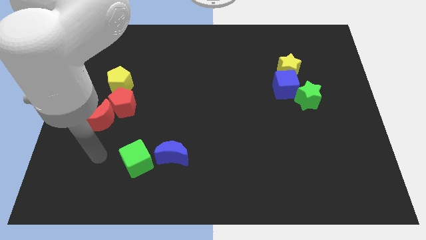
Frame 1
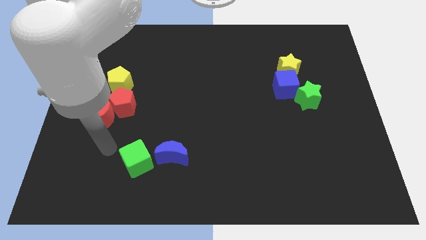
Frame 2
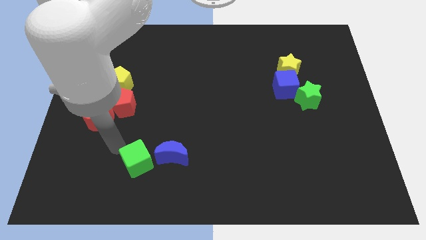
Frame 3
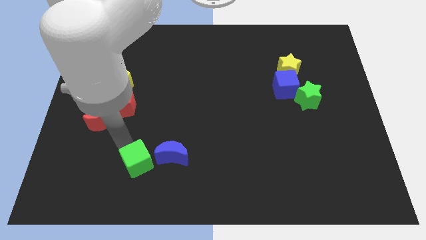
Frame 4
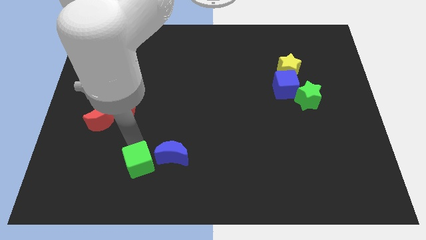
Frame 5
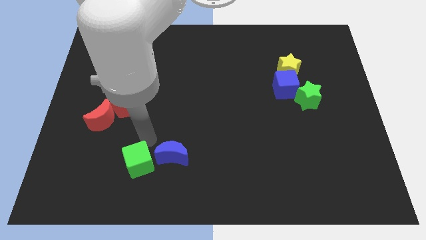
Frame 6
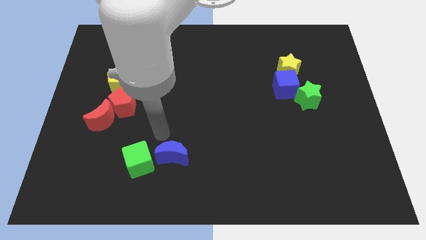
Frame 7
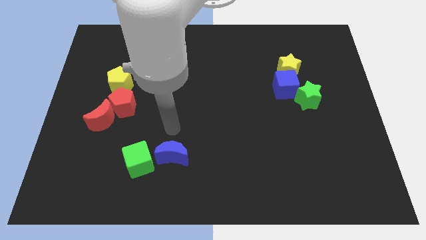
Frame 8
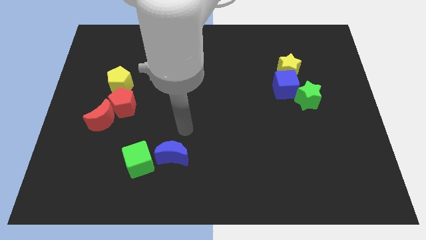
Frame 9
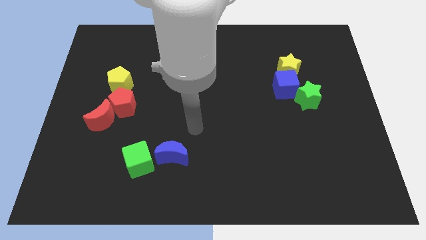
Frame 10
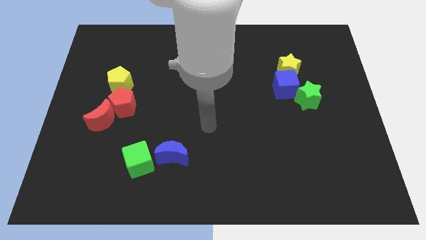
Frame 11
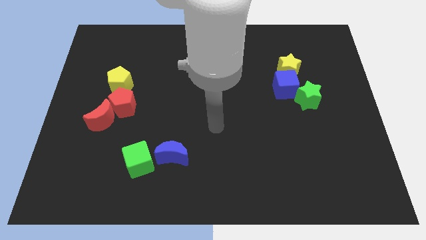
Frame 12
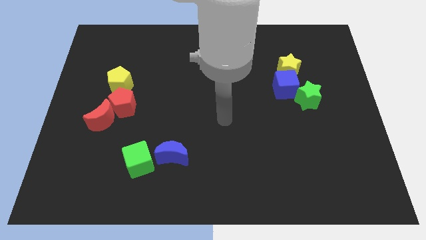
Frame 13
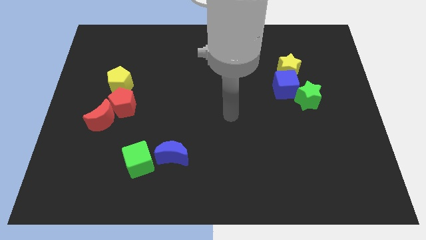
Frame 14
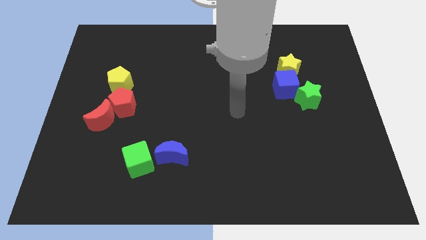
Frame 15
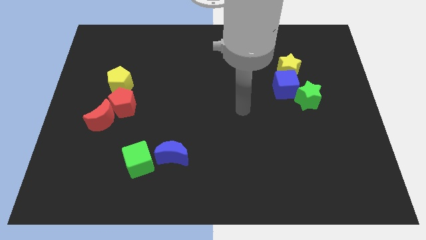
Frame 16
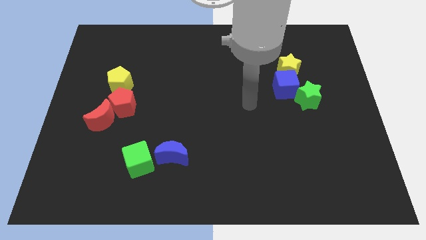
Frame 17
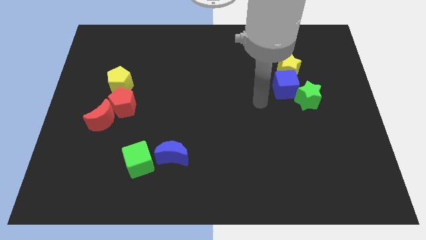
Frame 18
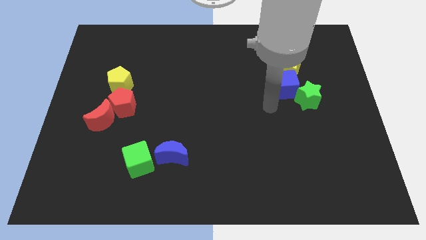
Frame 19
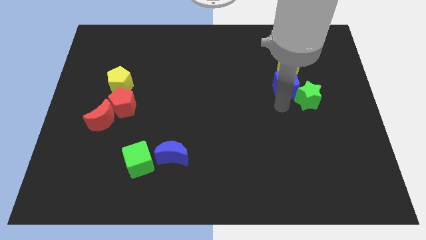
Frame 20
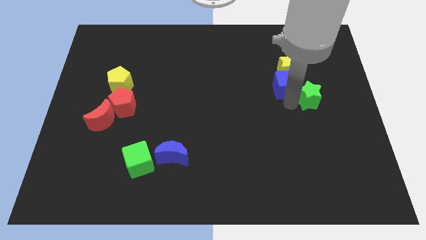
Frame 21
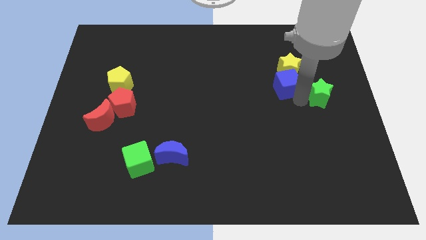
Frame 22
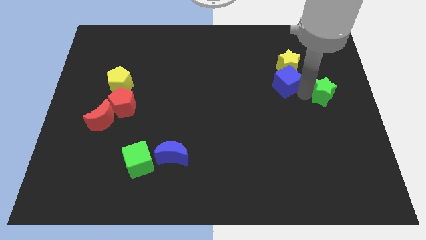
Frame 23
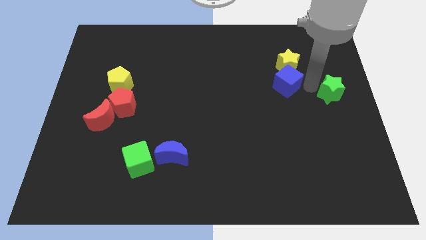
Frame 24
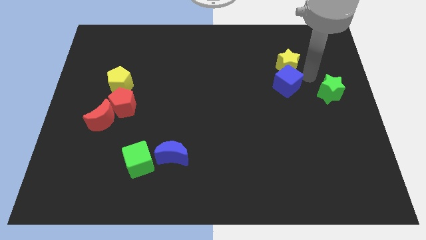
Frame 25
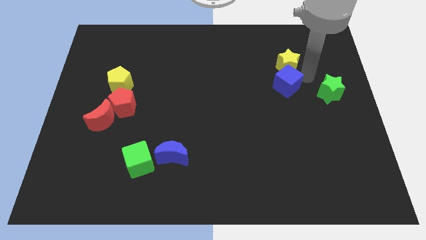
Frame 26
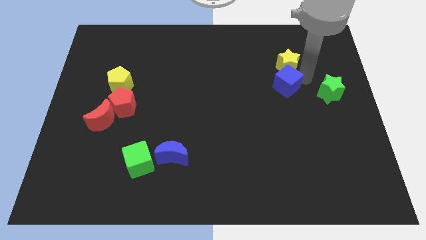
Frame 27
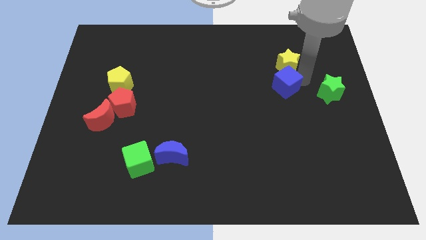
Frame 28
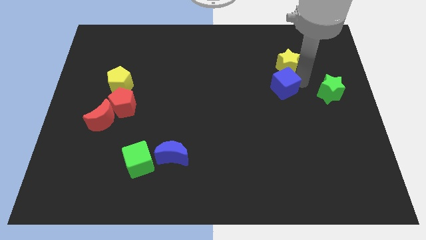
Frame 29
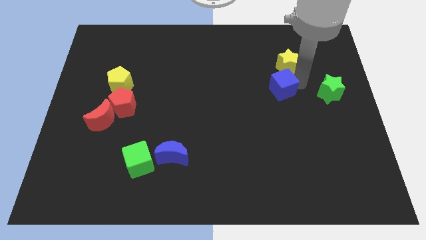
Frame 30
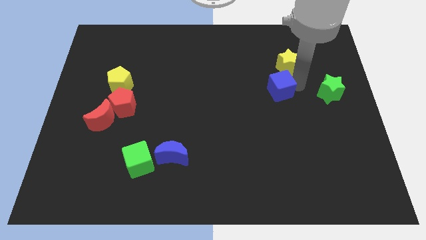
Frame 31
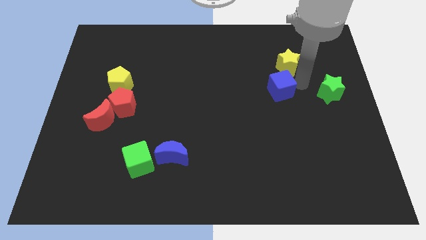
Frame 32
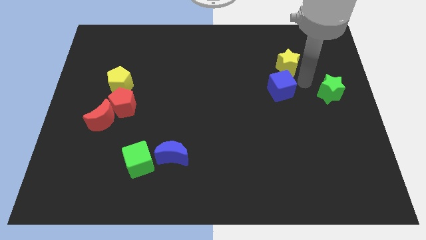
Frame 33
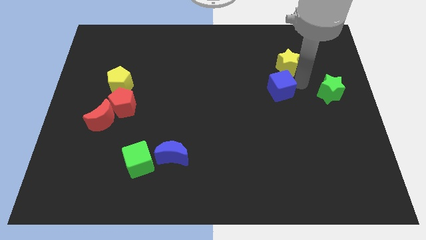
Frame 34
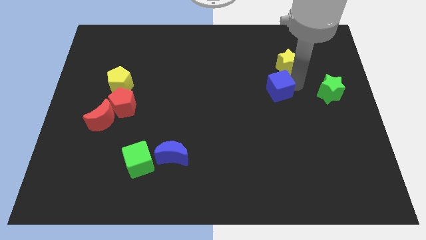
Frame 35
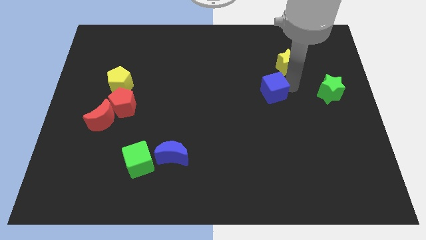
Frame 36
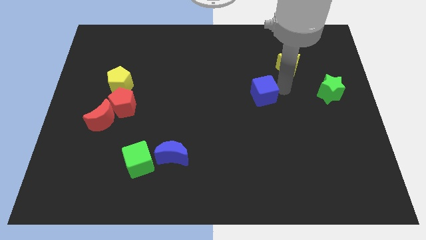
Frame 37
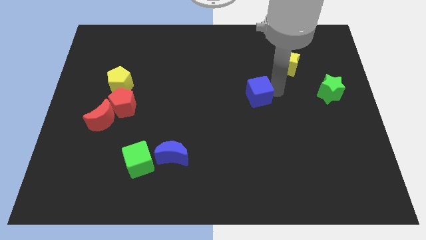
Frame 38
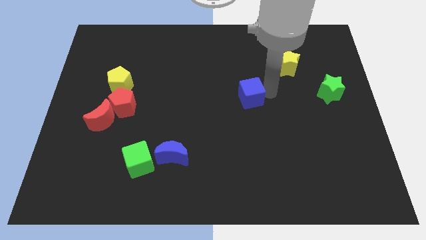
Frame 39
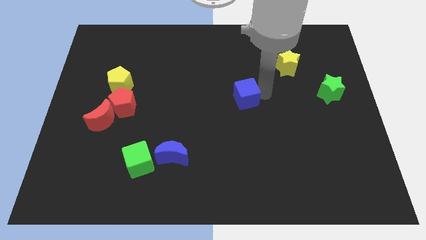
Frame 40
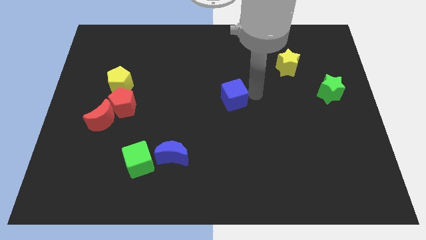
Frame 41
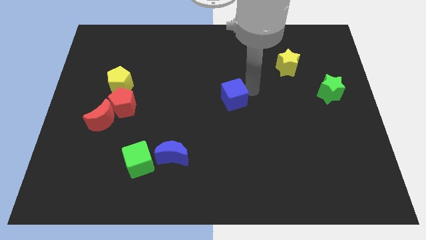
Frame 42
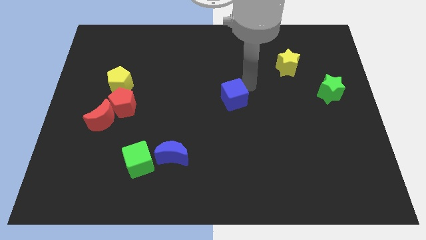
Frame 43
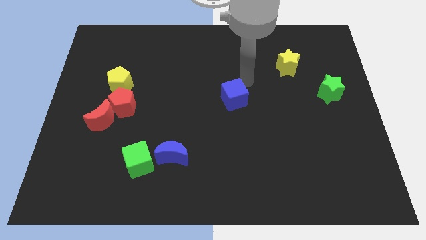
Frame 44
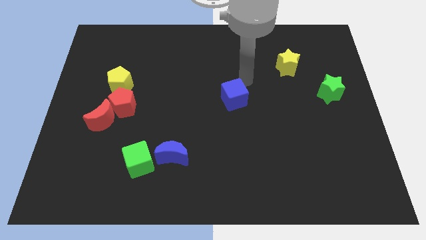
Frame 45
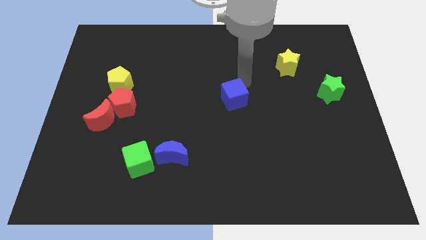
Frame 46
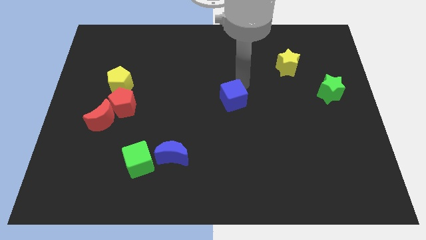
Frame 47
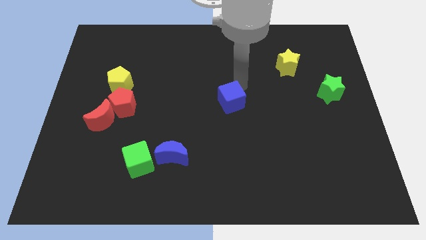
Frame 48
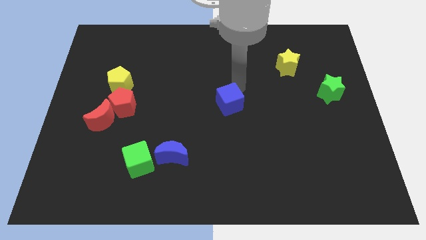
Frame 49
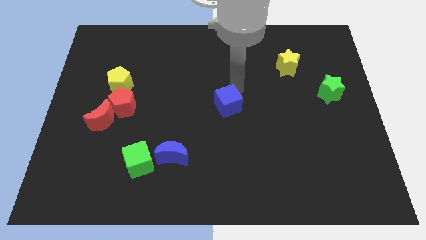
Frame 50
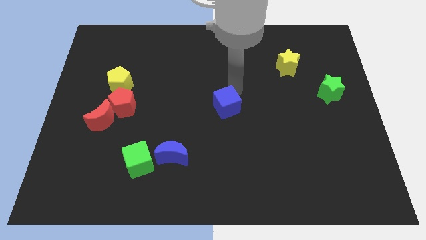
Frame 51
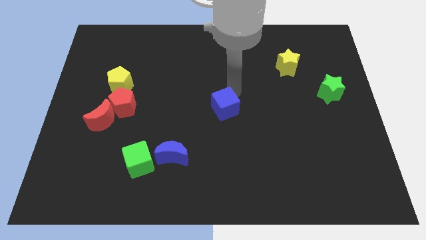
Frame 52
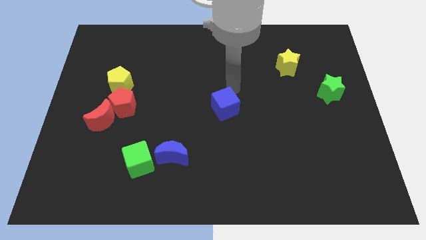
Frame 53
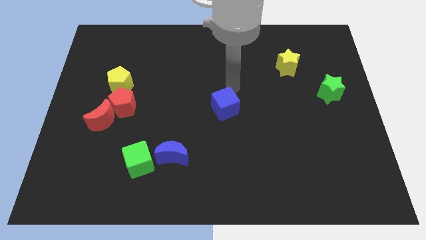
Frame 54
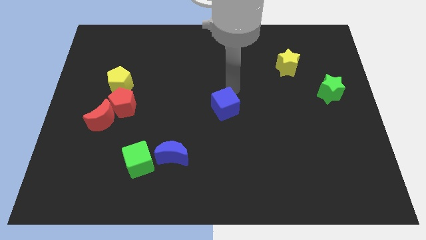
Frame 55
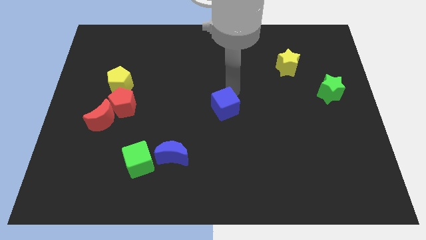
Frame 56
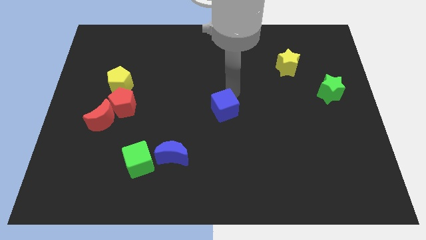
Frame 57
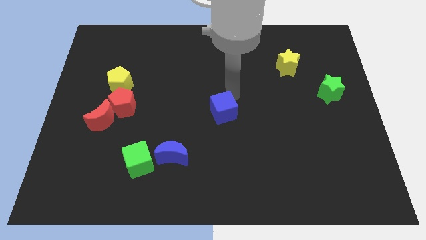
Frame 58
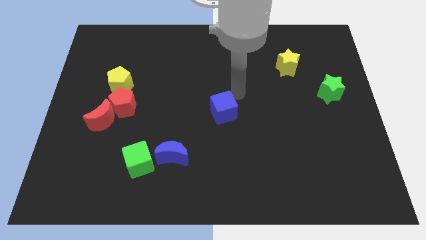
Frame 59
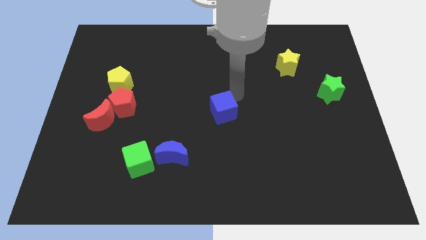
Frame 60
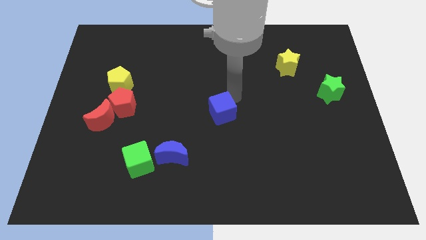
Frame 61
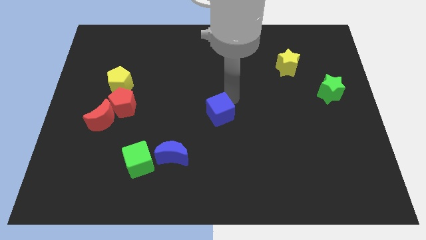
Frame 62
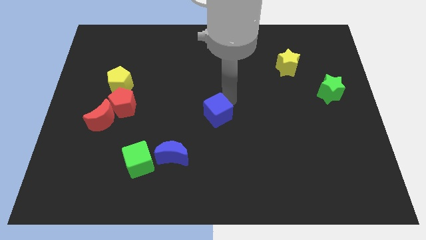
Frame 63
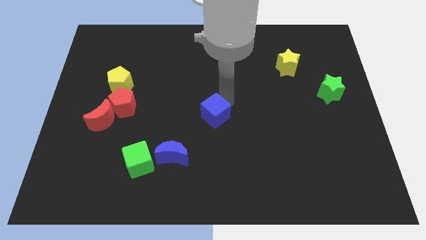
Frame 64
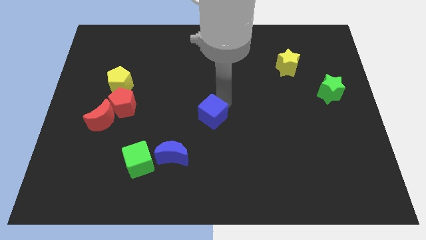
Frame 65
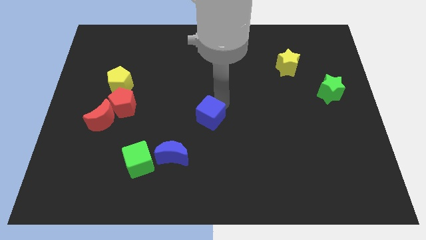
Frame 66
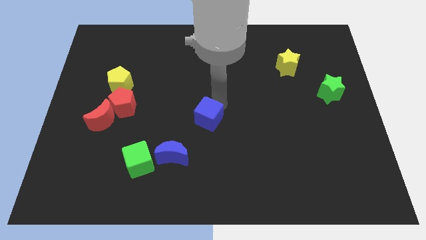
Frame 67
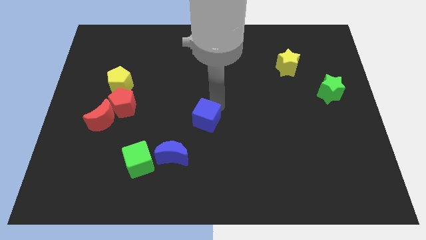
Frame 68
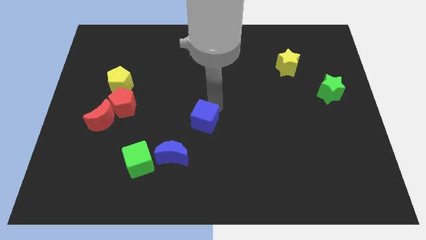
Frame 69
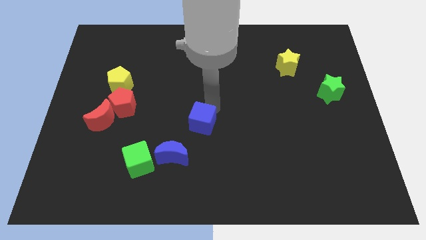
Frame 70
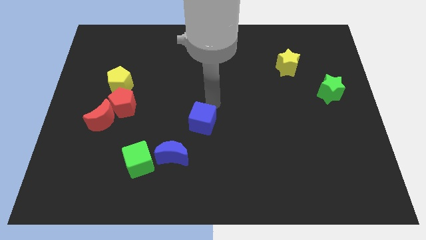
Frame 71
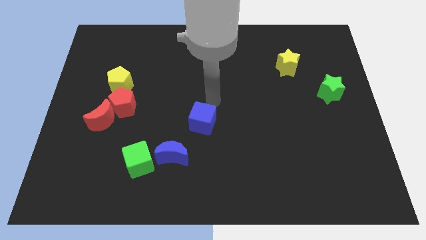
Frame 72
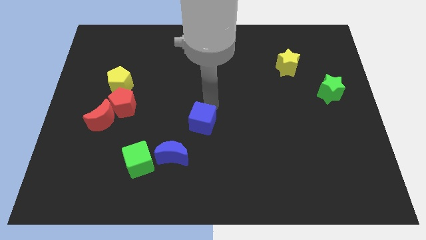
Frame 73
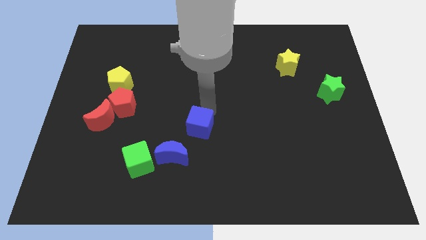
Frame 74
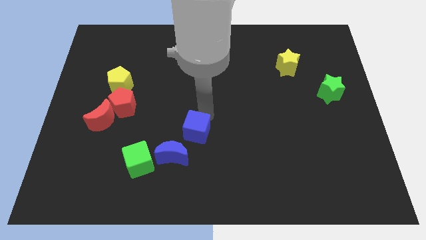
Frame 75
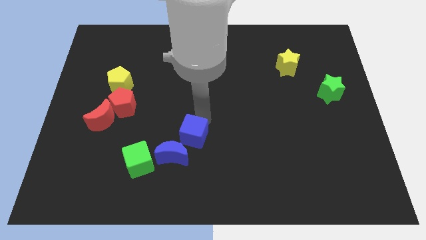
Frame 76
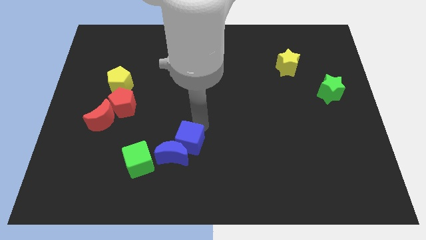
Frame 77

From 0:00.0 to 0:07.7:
push the blue cube towards the blue moon
